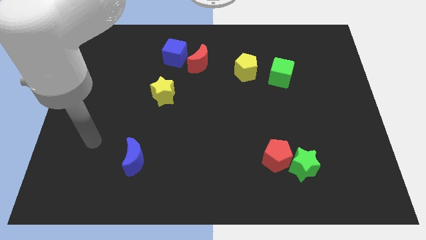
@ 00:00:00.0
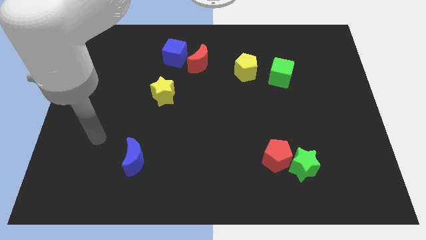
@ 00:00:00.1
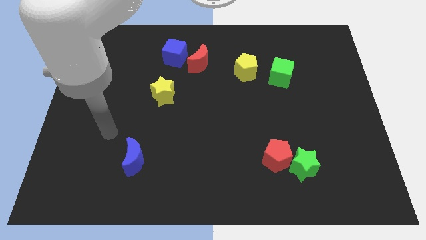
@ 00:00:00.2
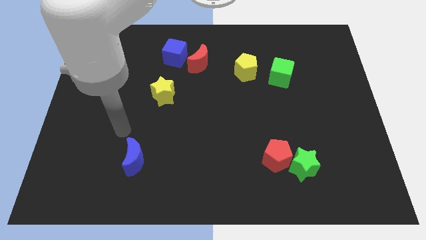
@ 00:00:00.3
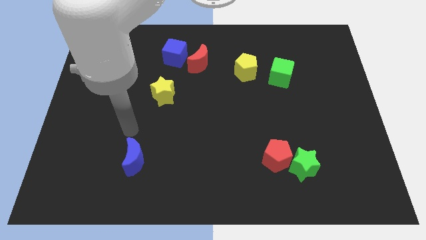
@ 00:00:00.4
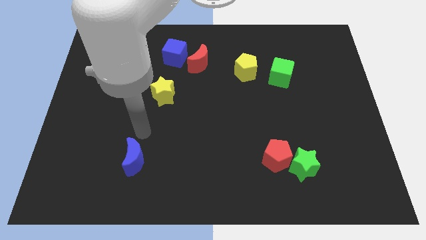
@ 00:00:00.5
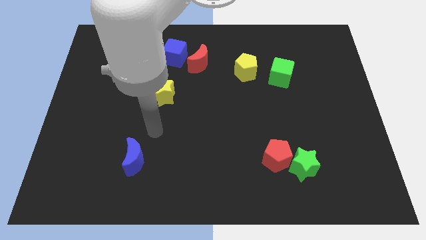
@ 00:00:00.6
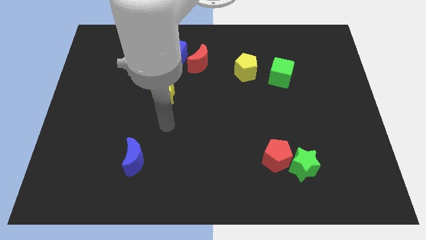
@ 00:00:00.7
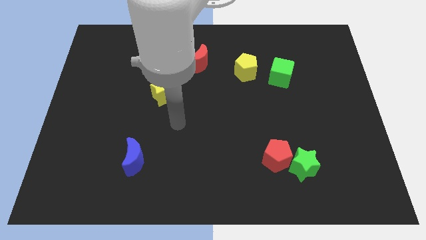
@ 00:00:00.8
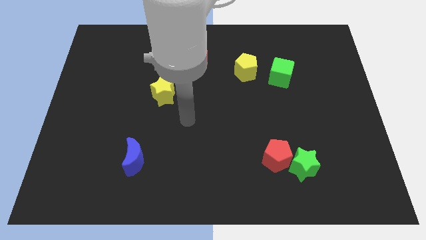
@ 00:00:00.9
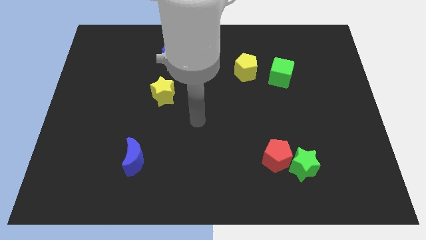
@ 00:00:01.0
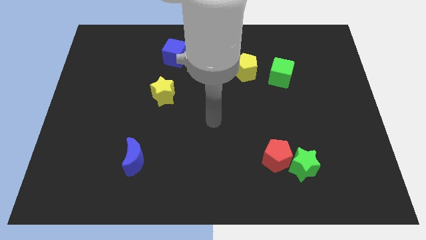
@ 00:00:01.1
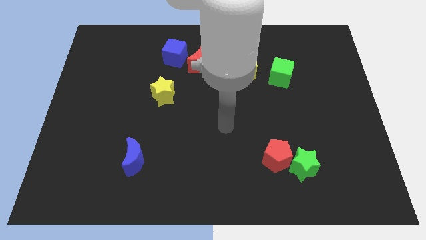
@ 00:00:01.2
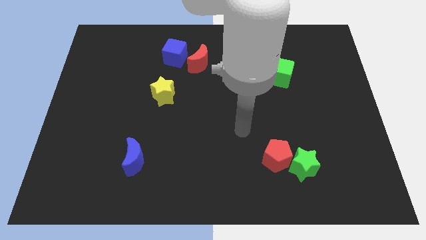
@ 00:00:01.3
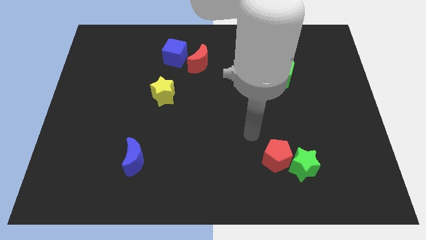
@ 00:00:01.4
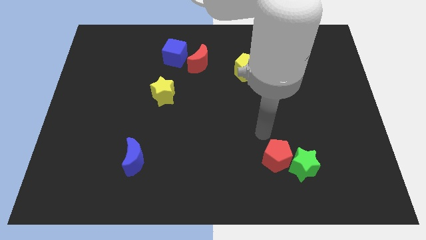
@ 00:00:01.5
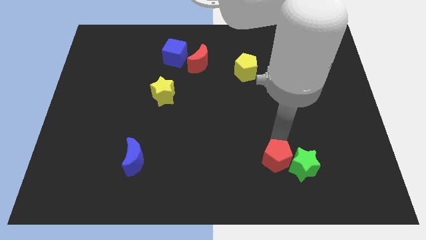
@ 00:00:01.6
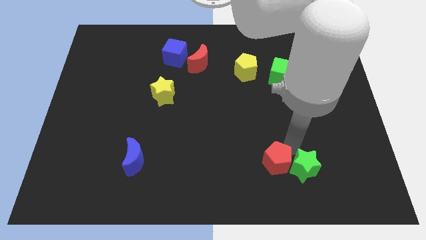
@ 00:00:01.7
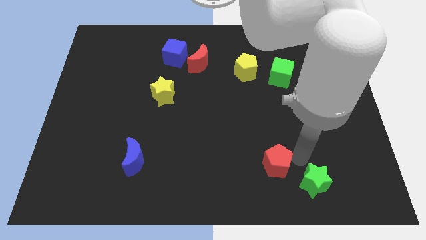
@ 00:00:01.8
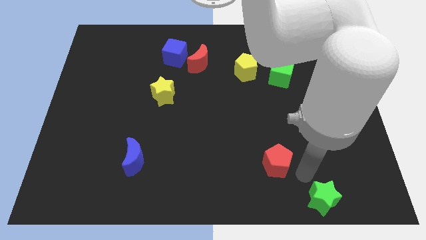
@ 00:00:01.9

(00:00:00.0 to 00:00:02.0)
move the red pentagon away from the green star

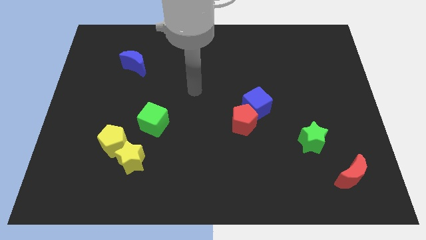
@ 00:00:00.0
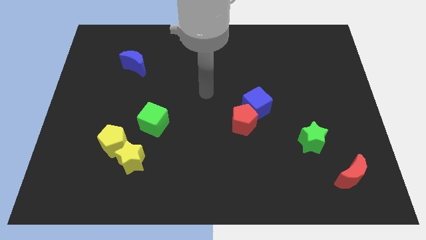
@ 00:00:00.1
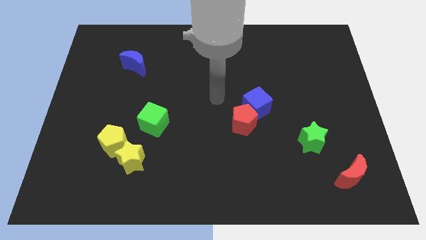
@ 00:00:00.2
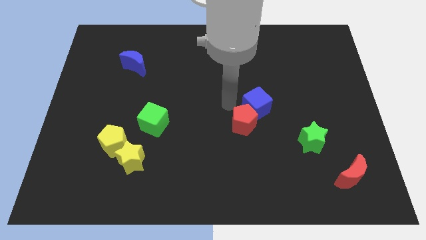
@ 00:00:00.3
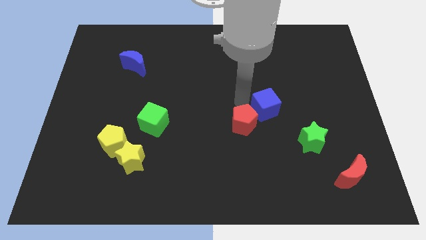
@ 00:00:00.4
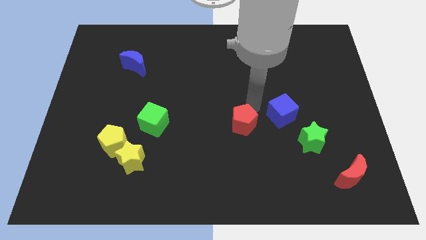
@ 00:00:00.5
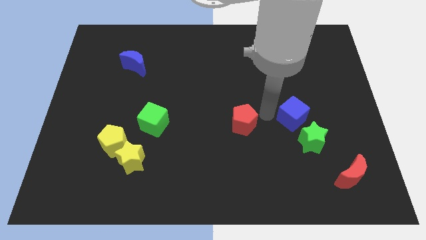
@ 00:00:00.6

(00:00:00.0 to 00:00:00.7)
separate the red pentagon from the blue cube

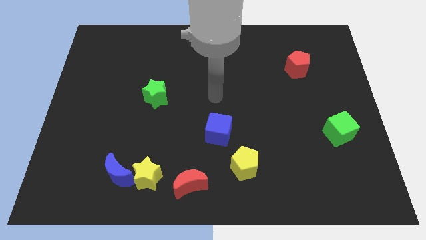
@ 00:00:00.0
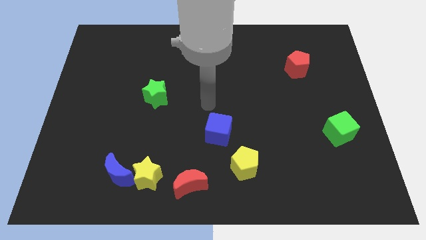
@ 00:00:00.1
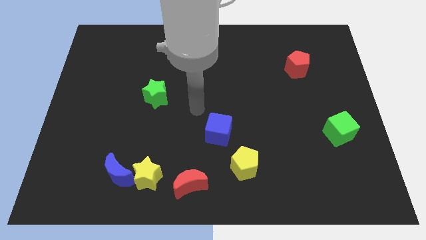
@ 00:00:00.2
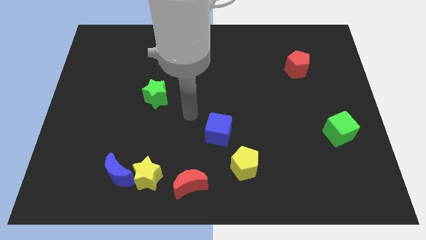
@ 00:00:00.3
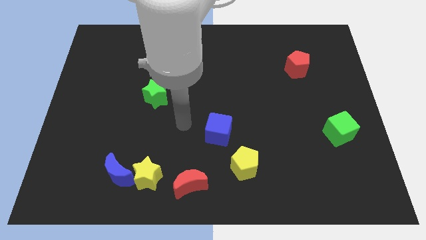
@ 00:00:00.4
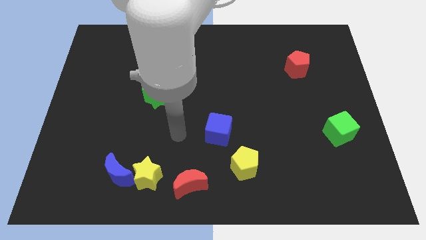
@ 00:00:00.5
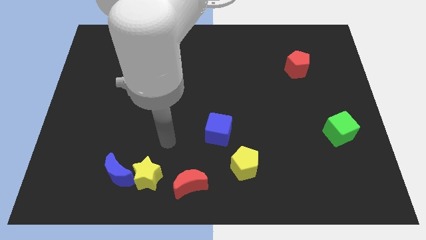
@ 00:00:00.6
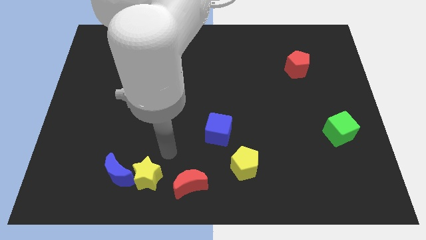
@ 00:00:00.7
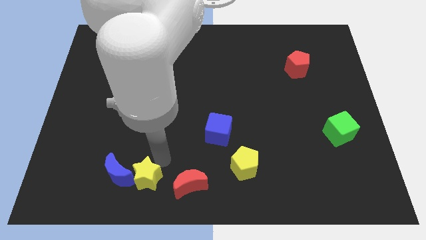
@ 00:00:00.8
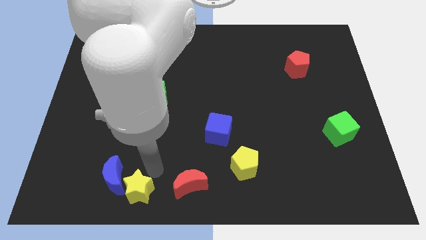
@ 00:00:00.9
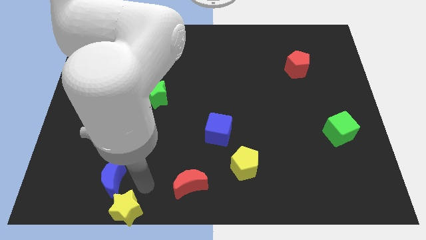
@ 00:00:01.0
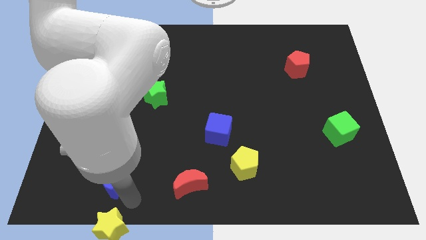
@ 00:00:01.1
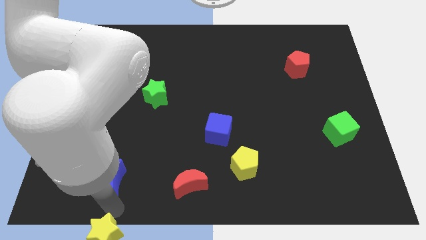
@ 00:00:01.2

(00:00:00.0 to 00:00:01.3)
pull the blue moon apart from the yellow star

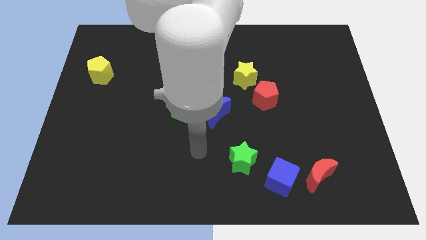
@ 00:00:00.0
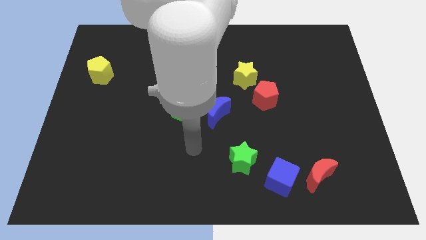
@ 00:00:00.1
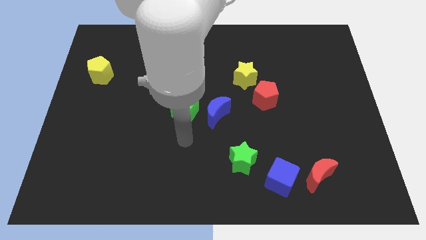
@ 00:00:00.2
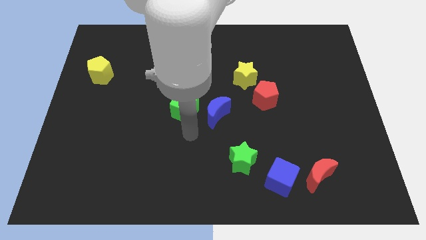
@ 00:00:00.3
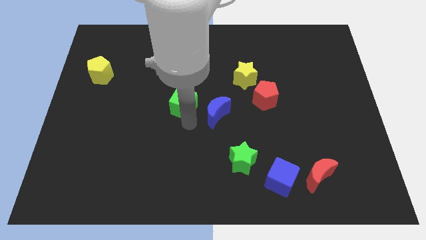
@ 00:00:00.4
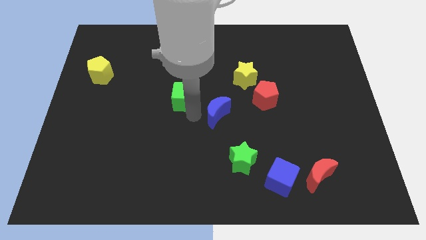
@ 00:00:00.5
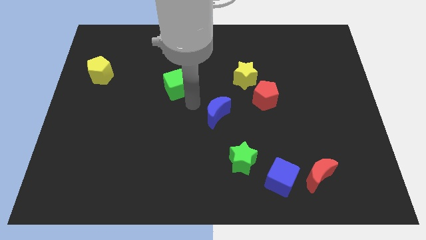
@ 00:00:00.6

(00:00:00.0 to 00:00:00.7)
pull the blue moon apart from the green cube

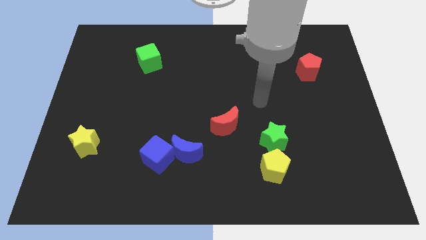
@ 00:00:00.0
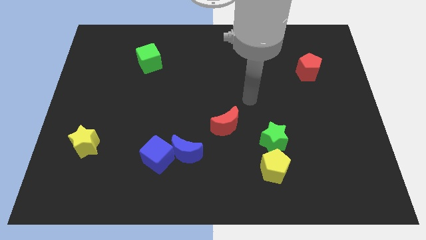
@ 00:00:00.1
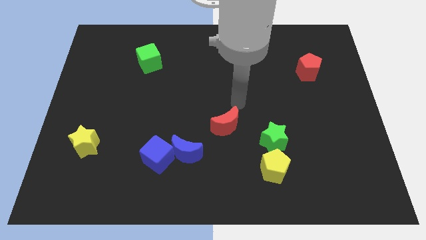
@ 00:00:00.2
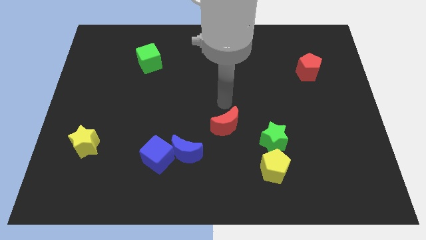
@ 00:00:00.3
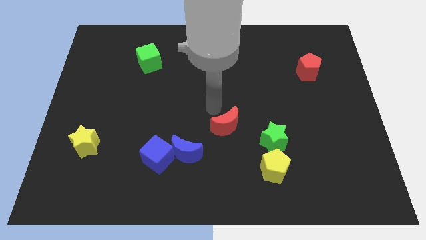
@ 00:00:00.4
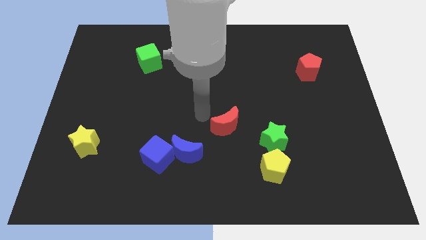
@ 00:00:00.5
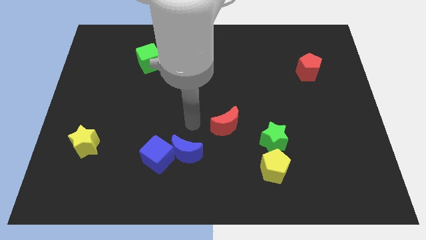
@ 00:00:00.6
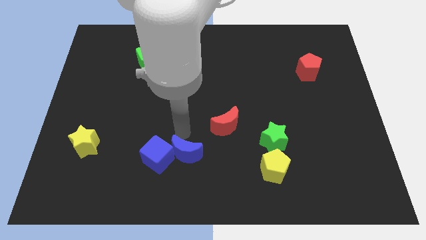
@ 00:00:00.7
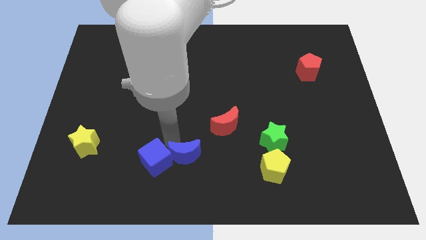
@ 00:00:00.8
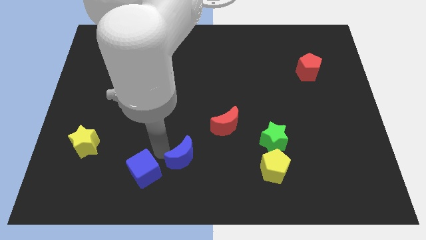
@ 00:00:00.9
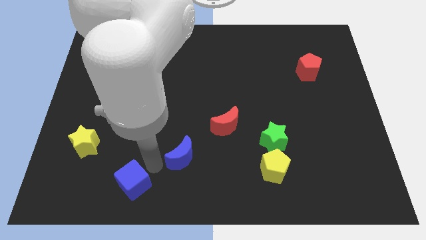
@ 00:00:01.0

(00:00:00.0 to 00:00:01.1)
pull the blue moon apart from the blue cube

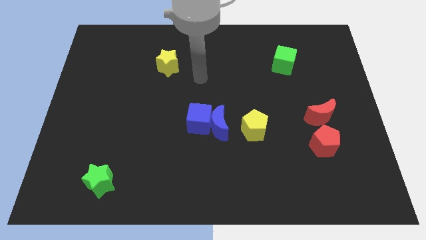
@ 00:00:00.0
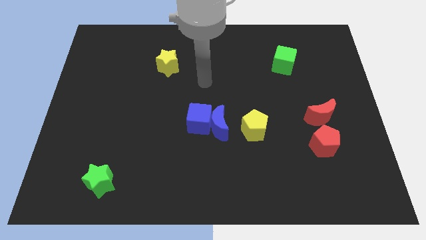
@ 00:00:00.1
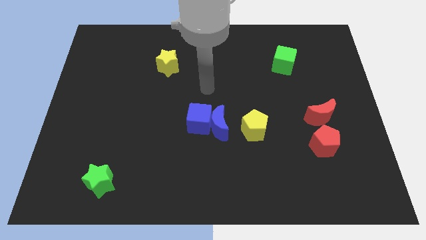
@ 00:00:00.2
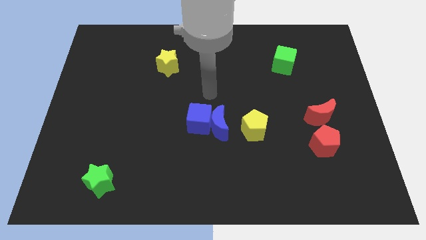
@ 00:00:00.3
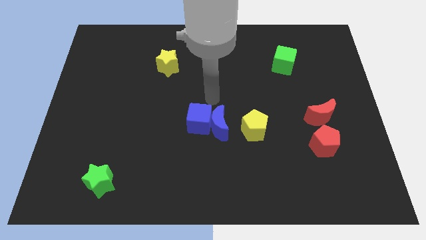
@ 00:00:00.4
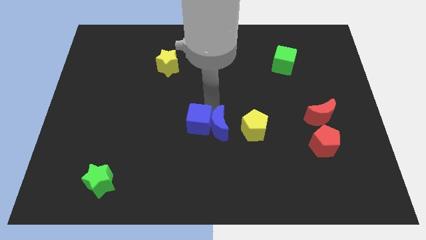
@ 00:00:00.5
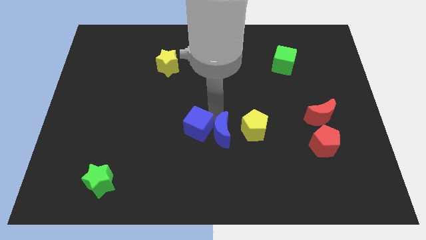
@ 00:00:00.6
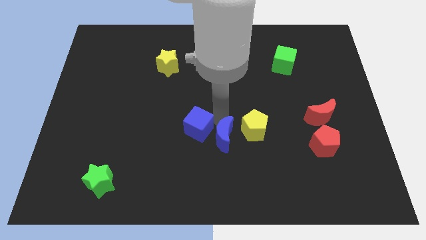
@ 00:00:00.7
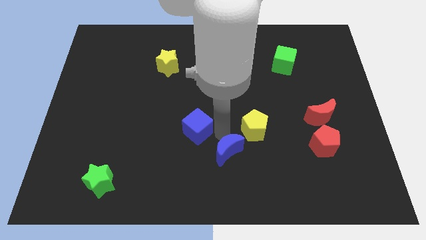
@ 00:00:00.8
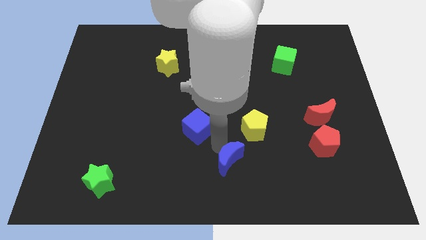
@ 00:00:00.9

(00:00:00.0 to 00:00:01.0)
separate the blue cube from the blue moon

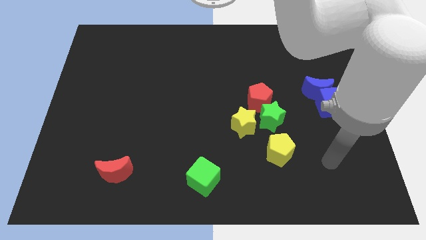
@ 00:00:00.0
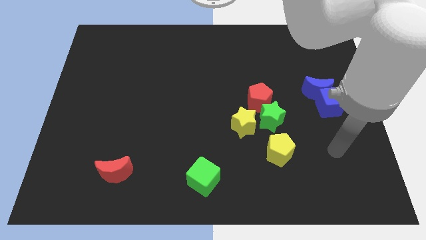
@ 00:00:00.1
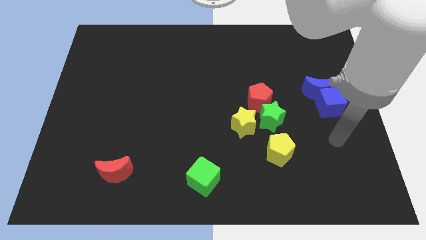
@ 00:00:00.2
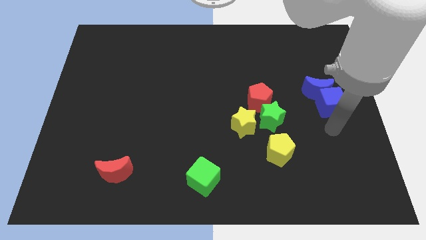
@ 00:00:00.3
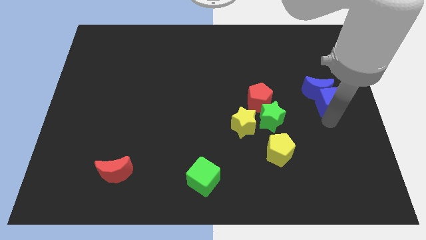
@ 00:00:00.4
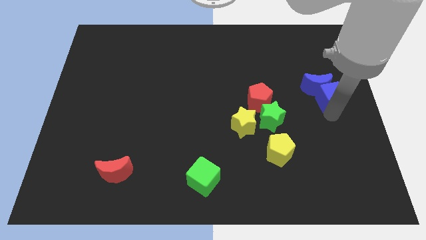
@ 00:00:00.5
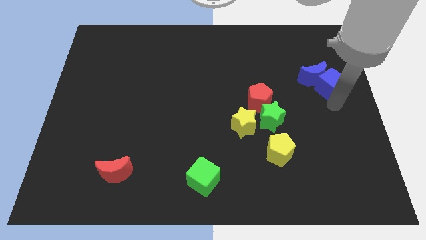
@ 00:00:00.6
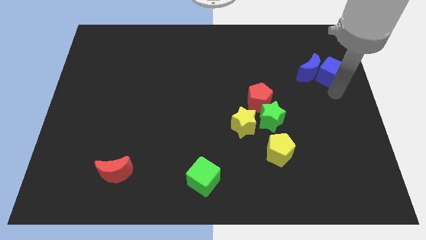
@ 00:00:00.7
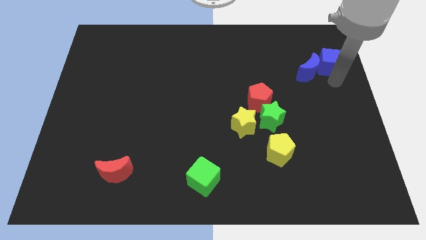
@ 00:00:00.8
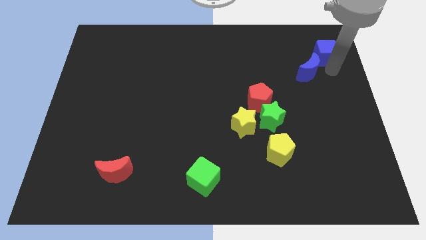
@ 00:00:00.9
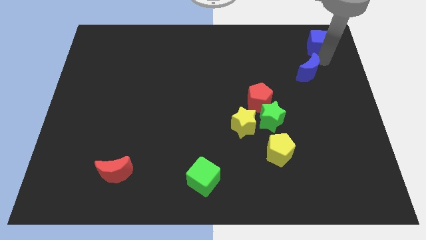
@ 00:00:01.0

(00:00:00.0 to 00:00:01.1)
separate the blue moon from the blue cube

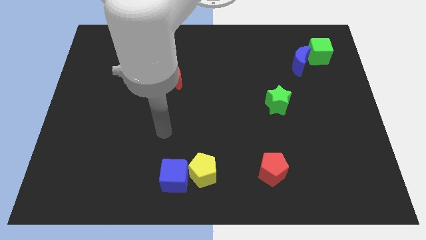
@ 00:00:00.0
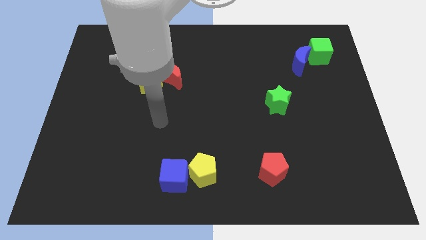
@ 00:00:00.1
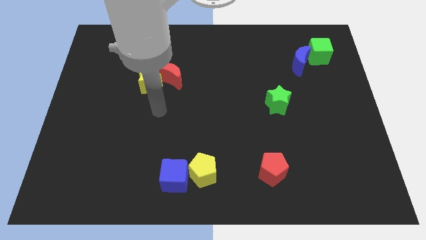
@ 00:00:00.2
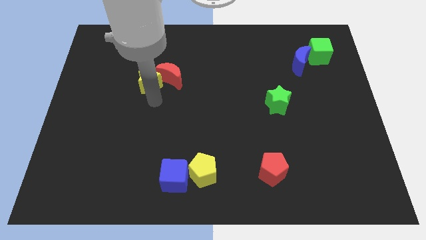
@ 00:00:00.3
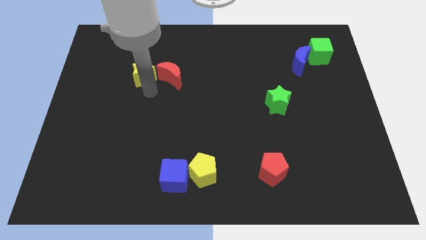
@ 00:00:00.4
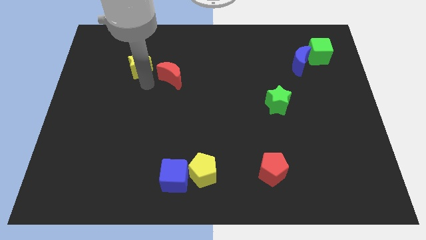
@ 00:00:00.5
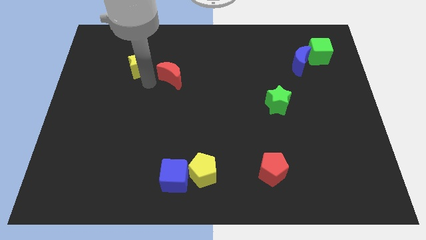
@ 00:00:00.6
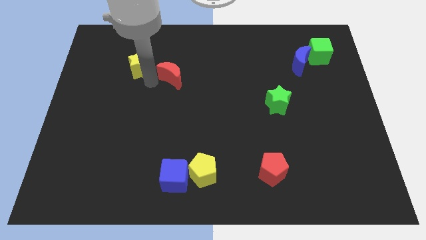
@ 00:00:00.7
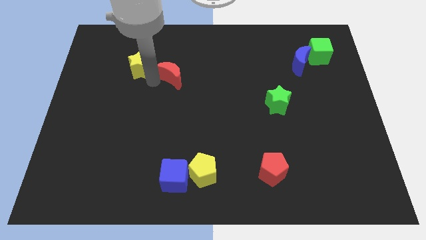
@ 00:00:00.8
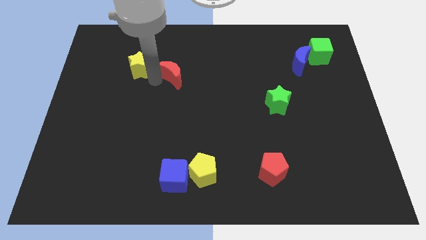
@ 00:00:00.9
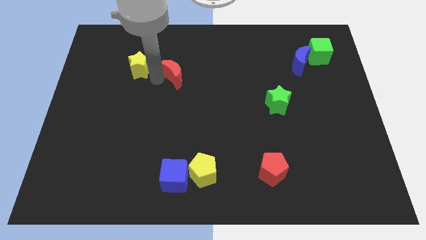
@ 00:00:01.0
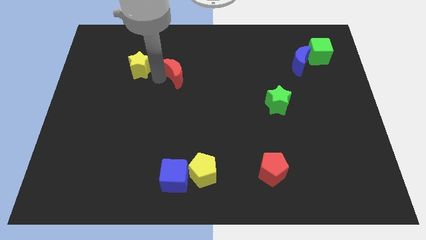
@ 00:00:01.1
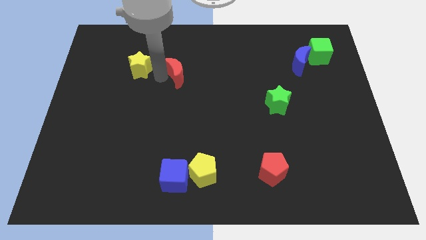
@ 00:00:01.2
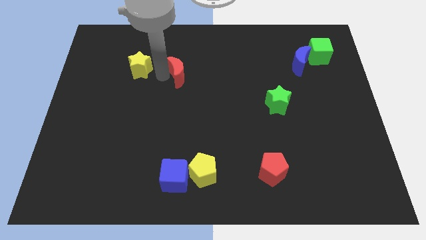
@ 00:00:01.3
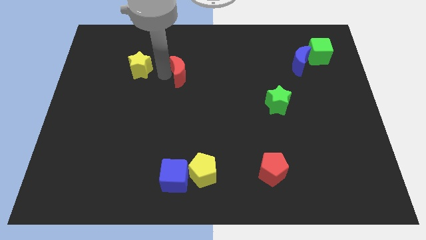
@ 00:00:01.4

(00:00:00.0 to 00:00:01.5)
separate the red moon from the yellow star
